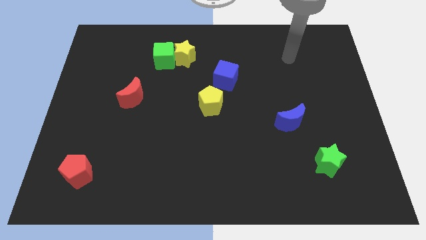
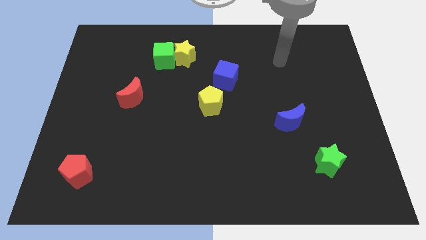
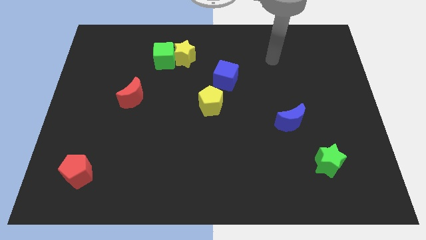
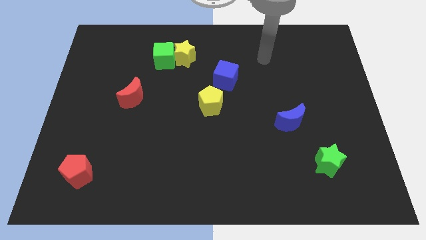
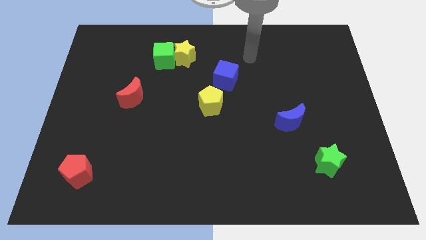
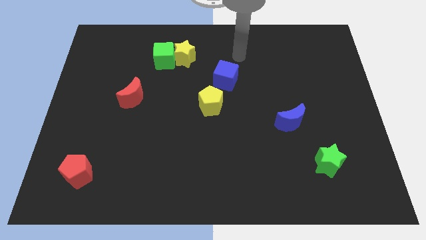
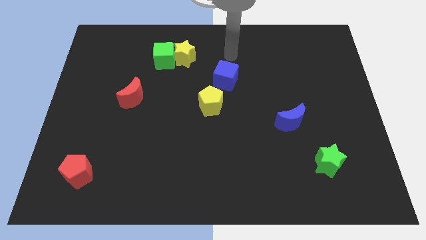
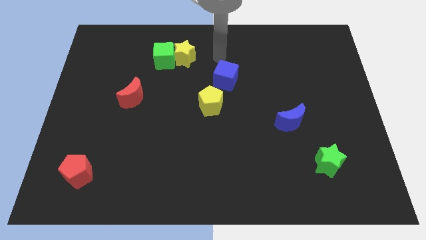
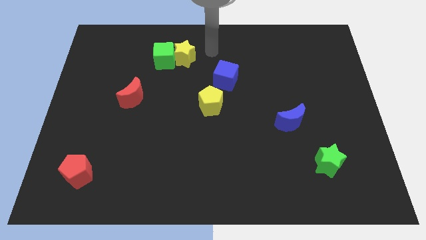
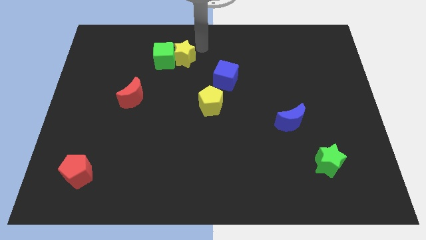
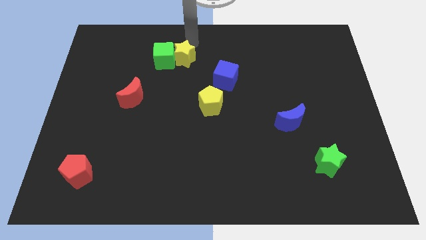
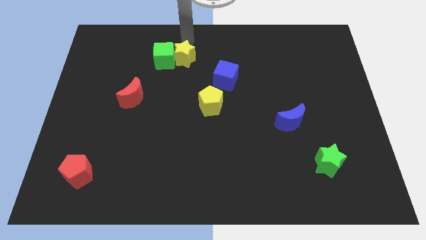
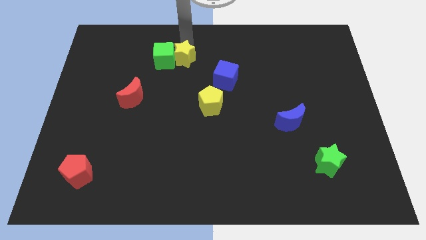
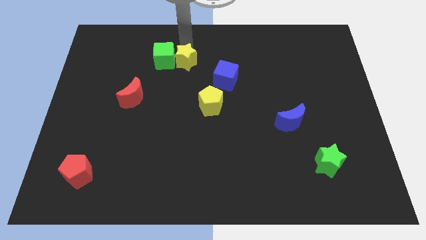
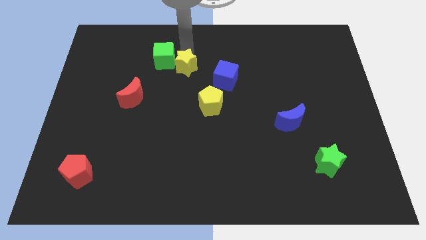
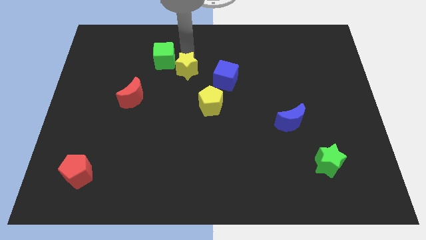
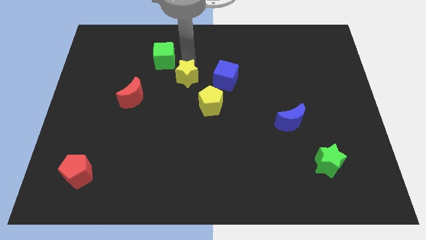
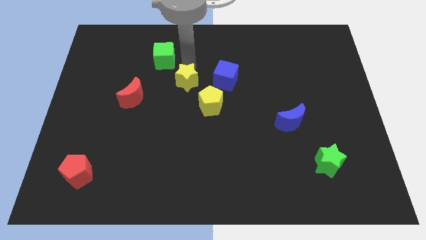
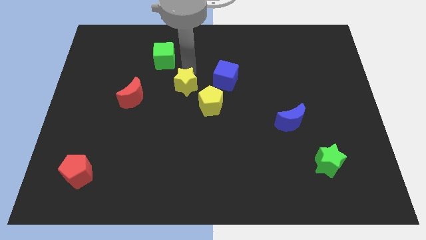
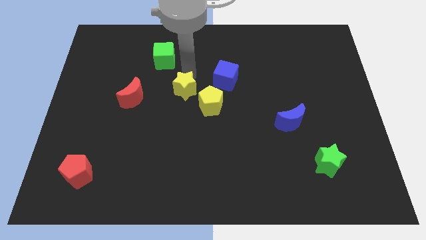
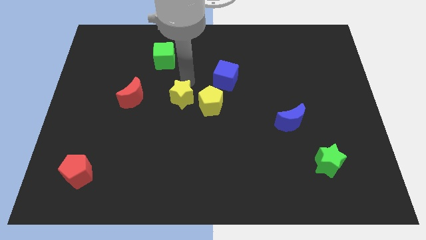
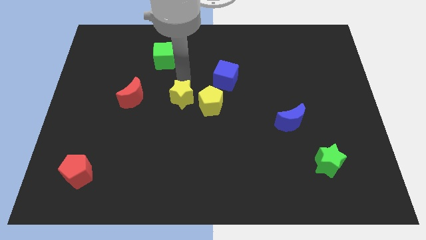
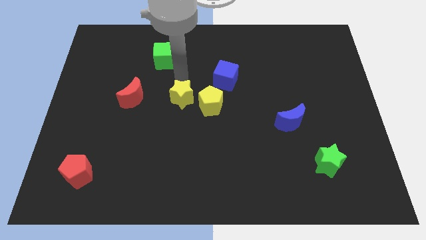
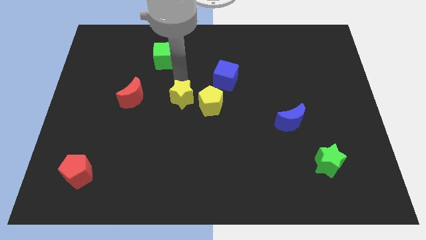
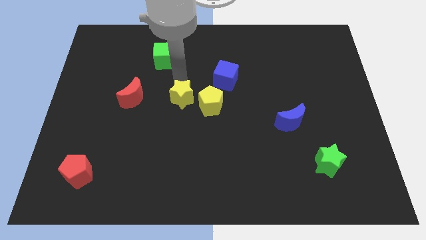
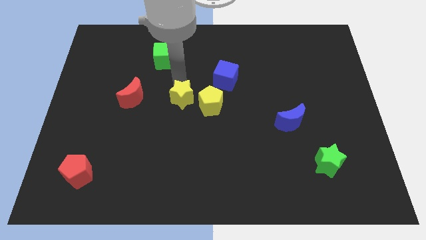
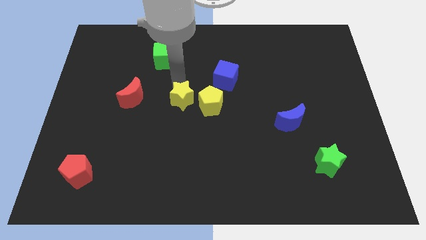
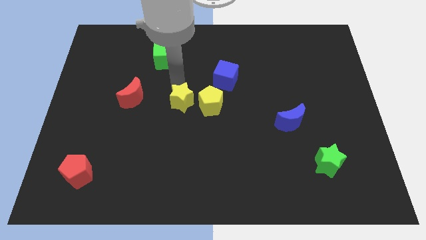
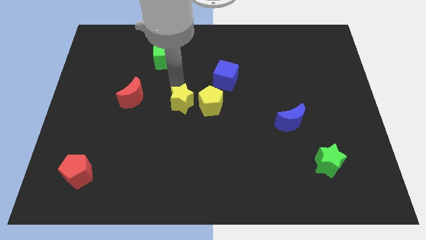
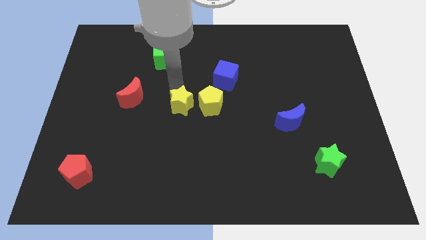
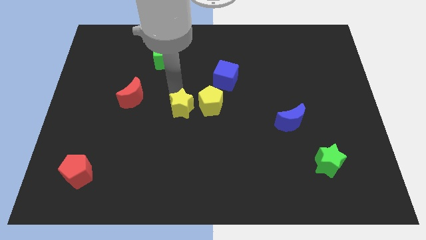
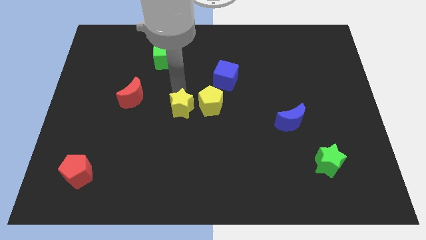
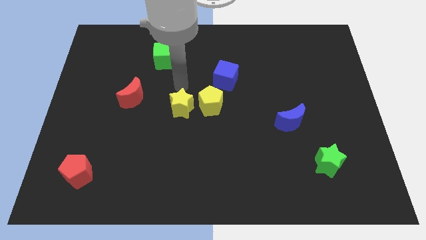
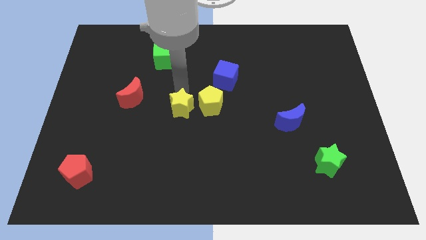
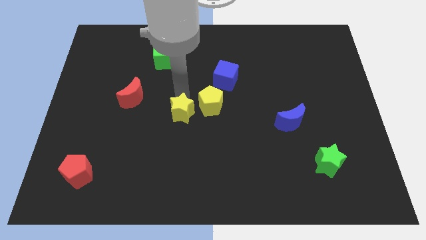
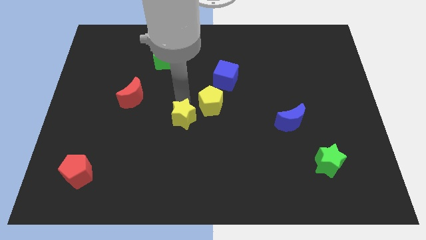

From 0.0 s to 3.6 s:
move the yellow star down

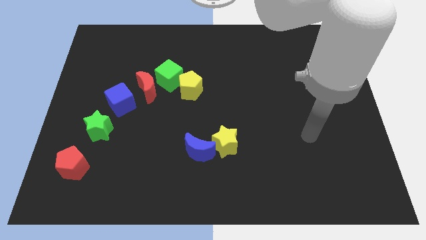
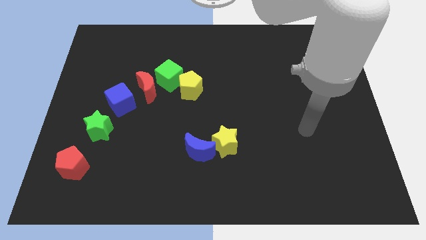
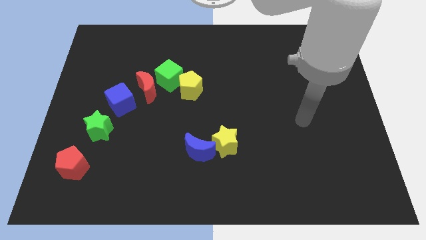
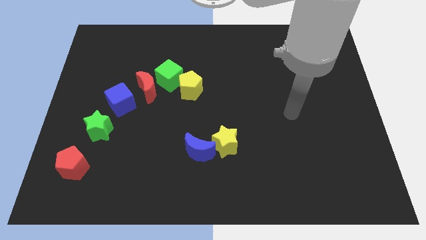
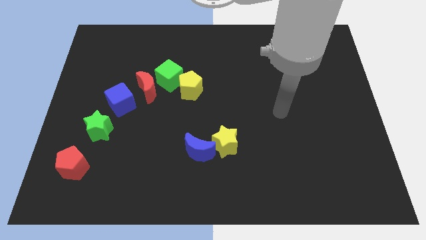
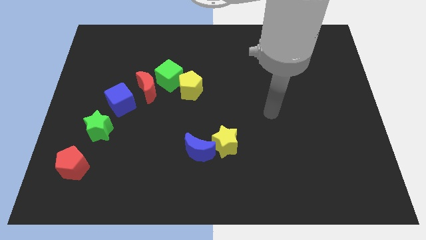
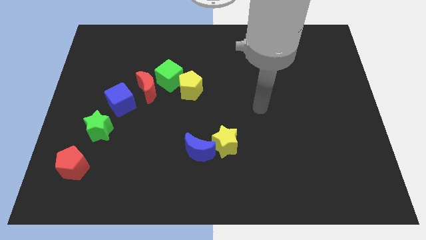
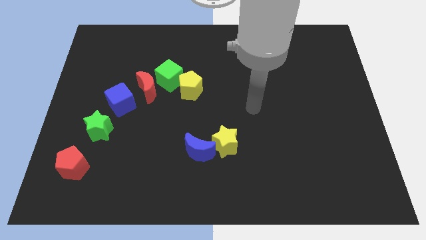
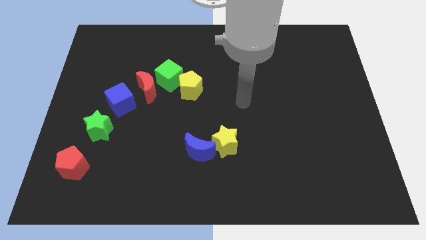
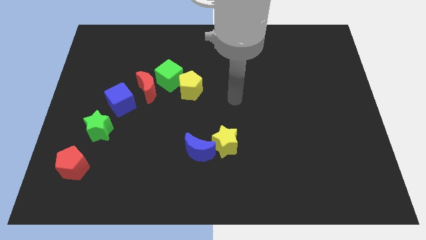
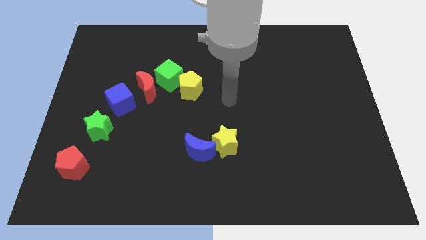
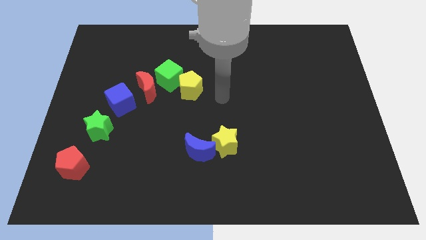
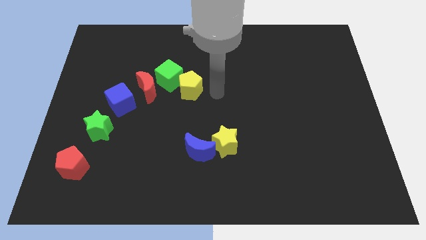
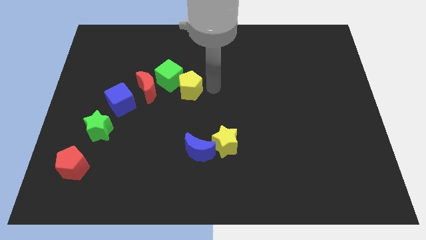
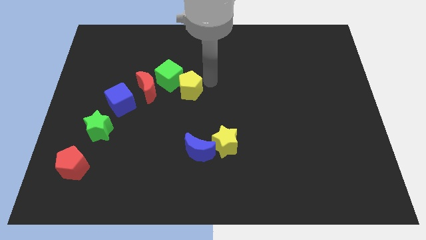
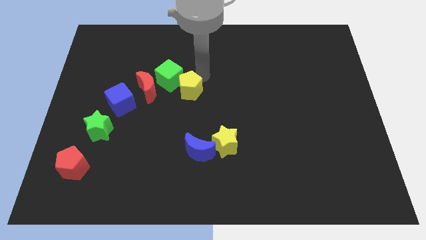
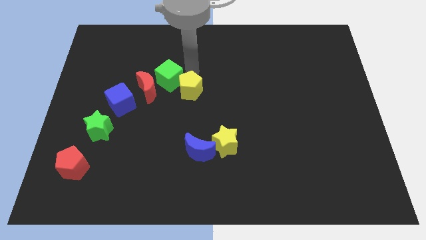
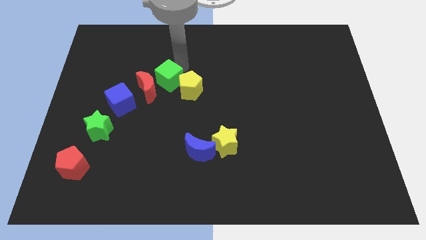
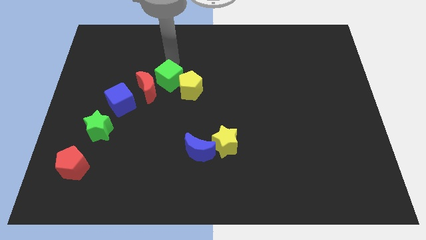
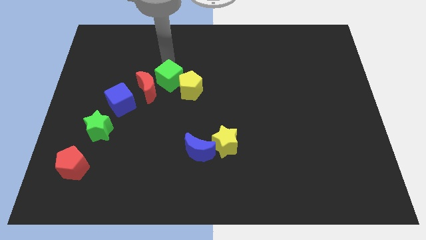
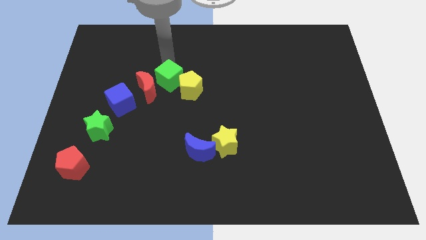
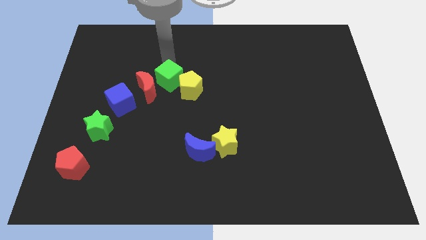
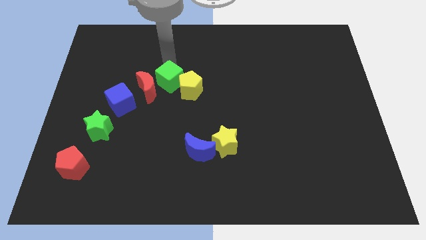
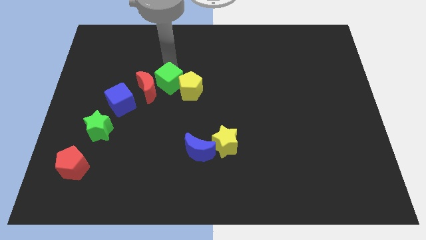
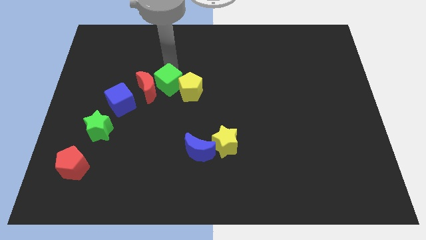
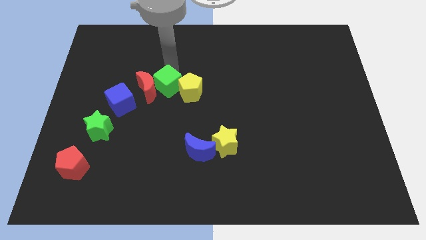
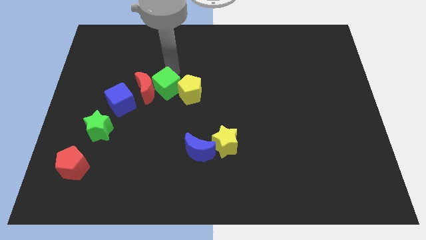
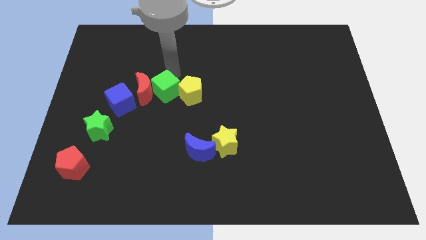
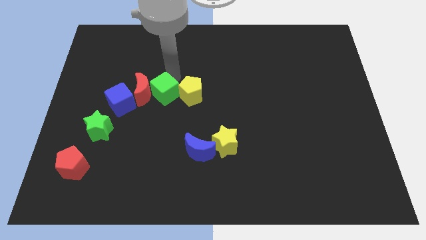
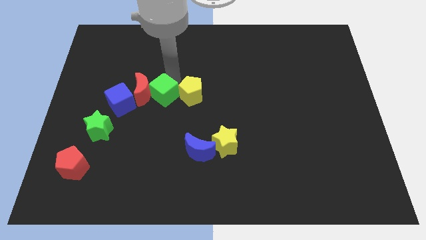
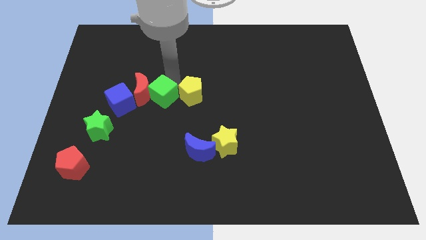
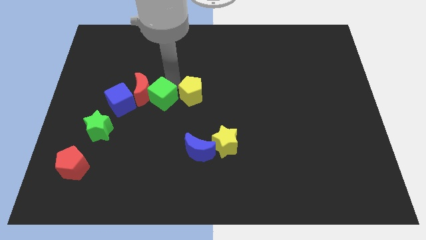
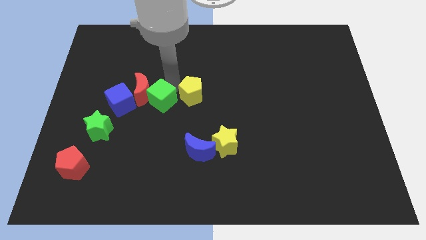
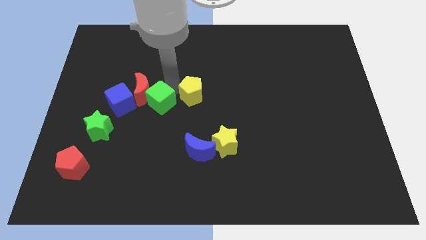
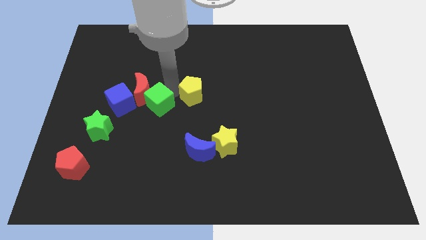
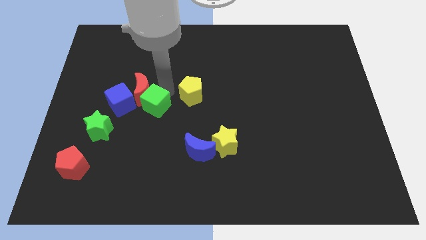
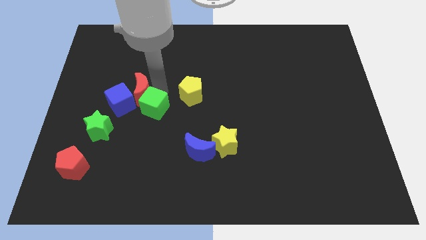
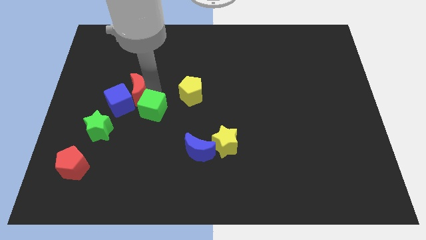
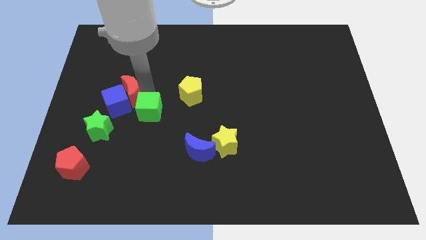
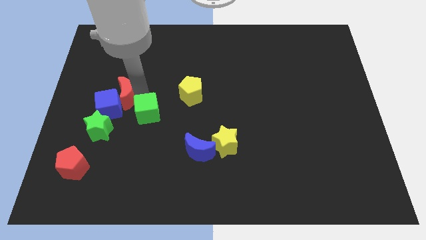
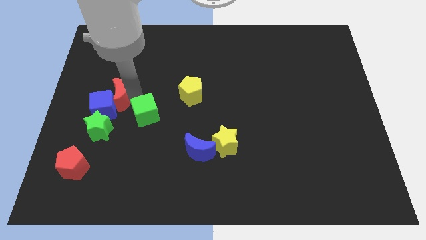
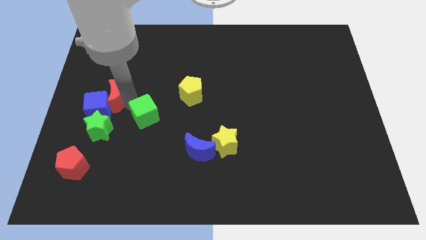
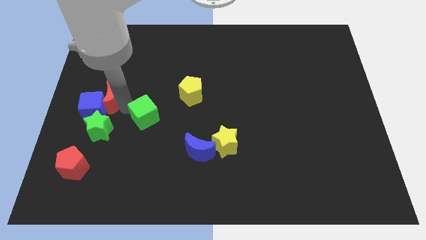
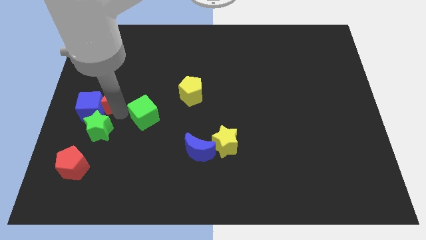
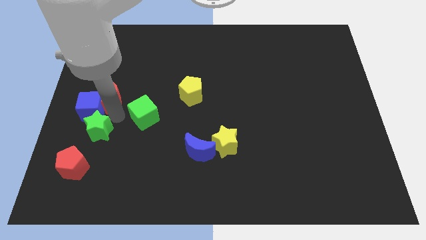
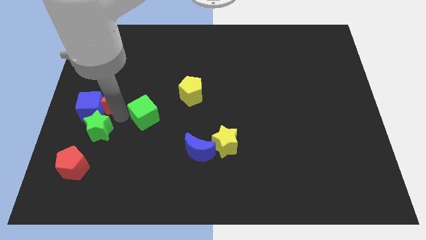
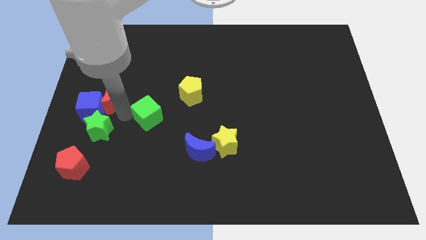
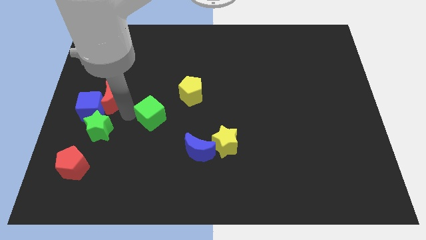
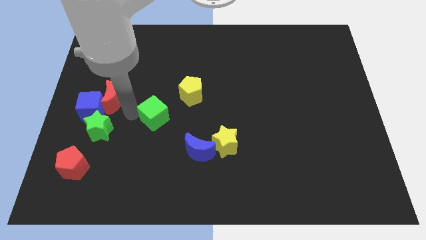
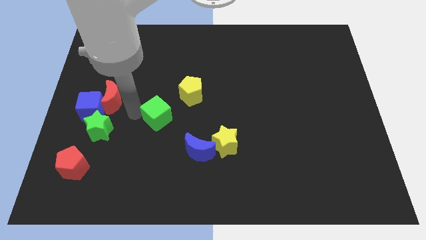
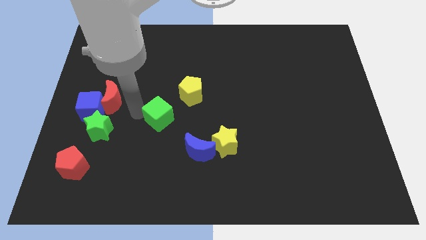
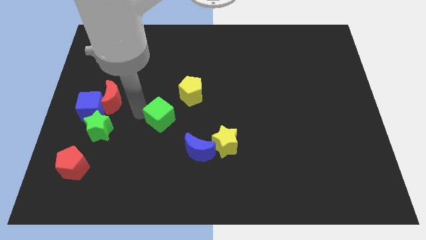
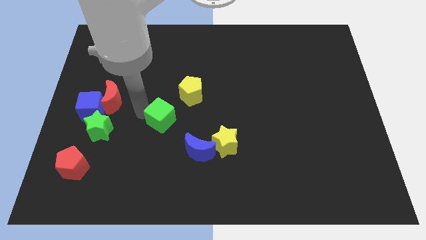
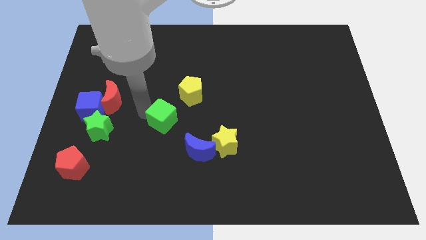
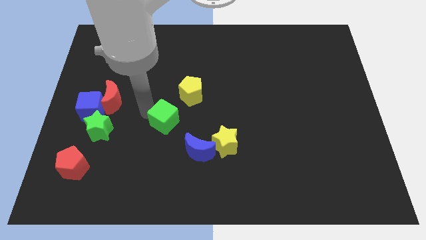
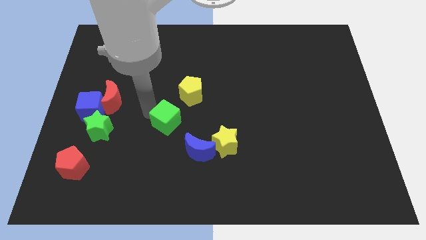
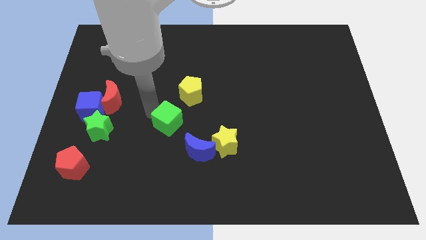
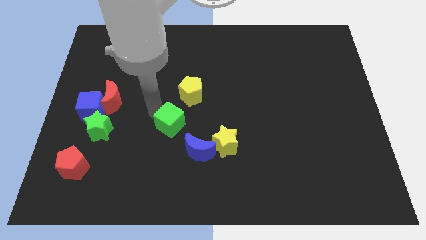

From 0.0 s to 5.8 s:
move the green cube downwards and then to the right slightly
